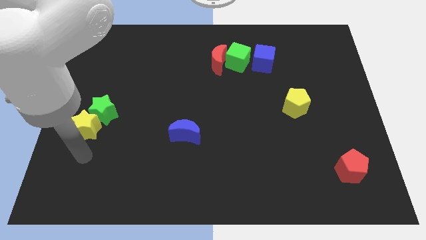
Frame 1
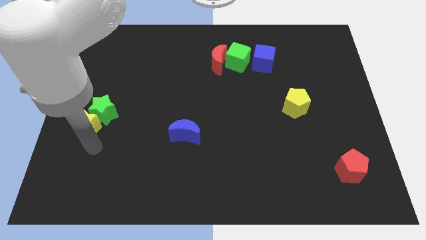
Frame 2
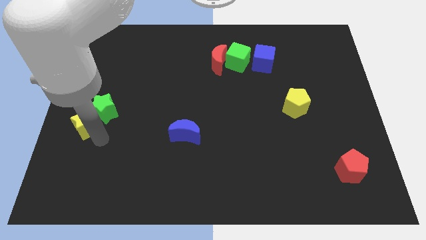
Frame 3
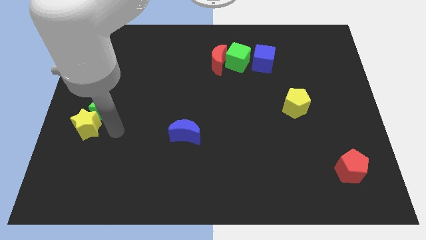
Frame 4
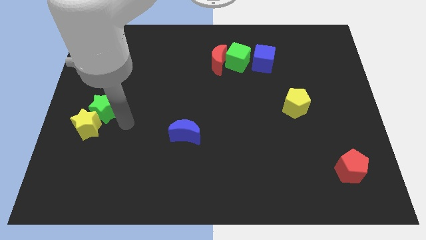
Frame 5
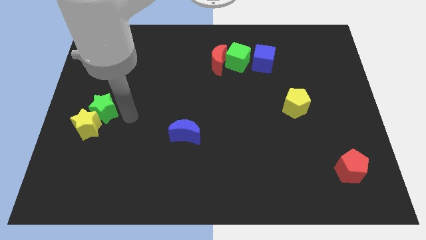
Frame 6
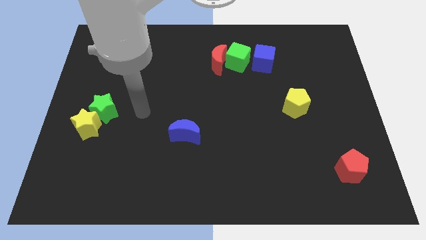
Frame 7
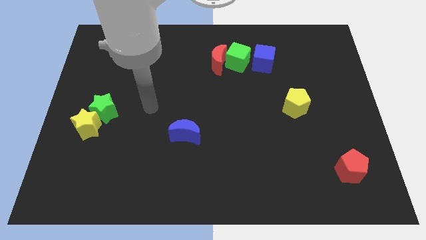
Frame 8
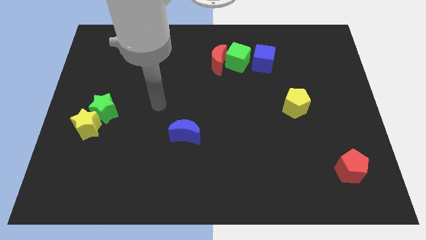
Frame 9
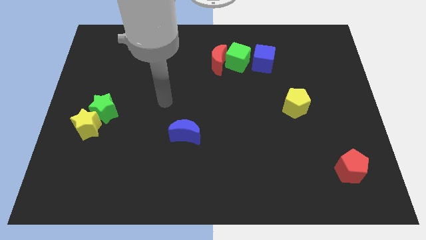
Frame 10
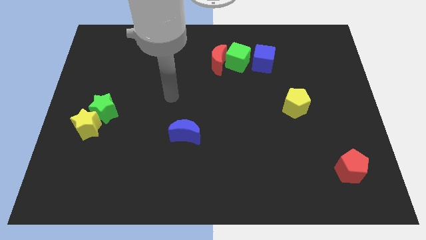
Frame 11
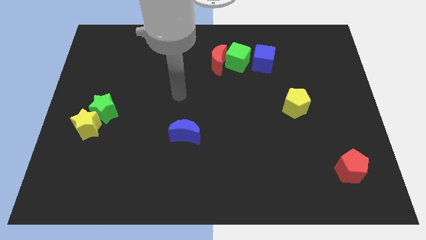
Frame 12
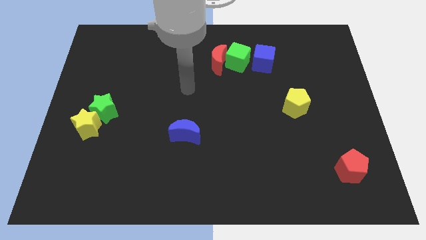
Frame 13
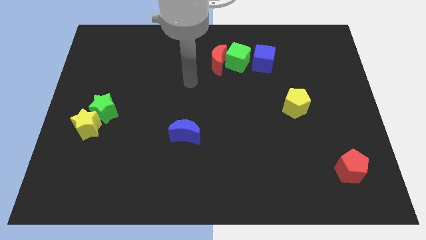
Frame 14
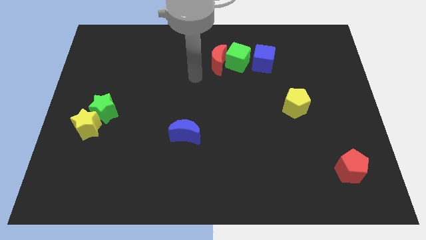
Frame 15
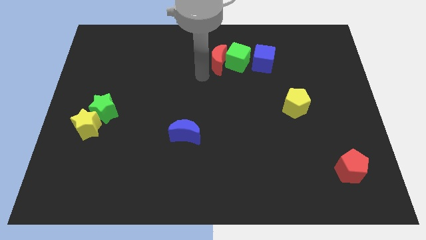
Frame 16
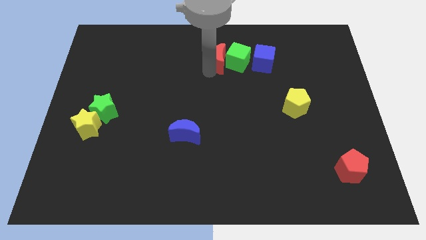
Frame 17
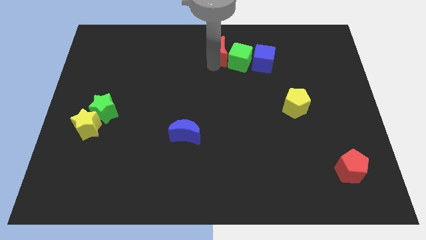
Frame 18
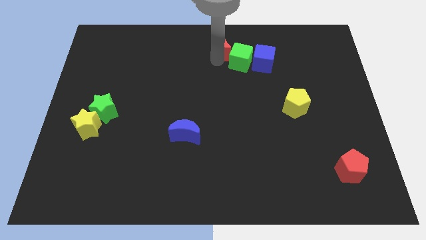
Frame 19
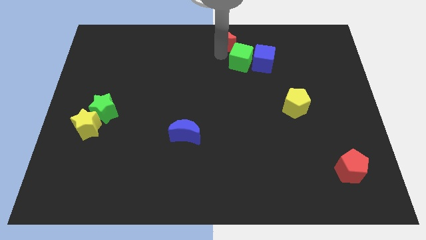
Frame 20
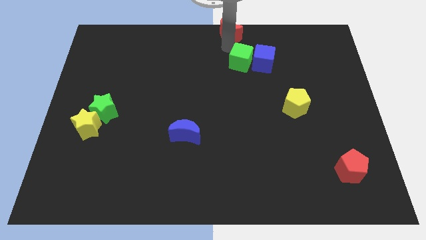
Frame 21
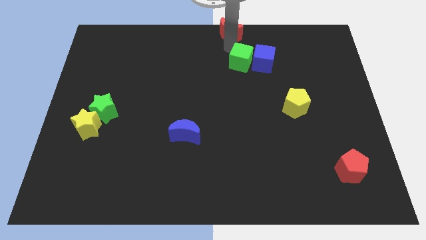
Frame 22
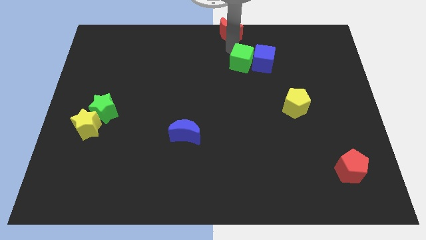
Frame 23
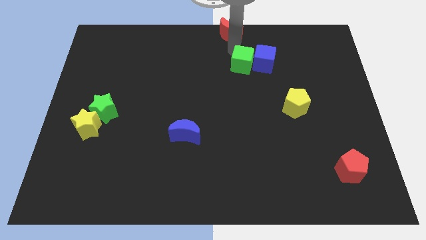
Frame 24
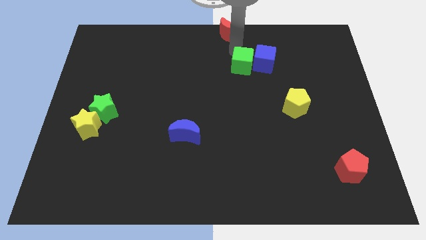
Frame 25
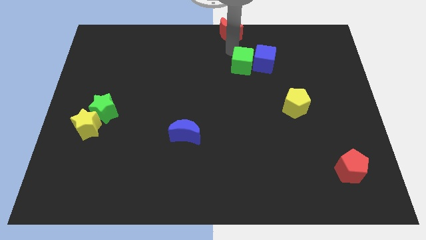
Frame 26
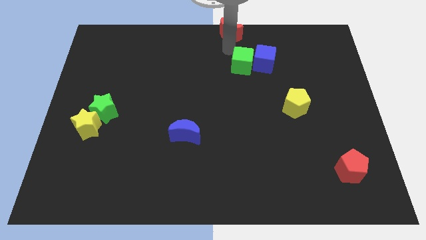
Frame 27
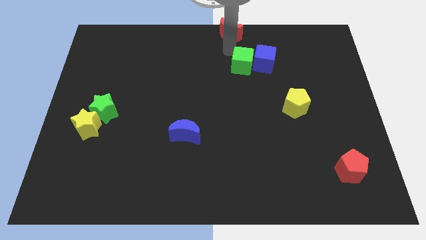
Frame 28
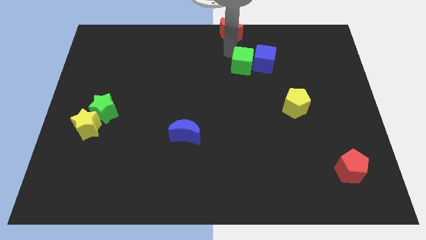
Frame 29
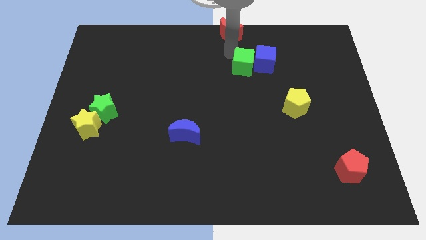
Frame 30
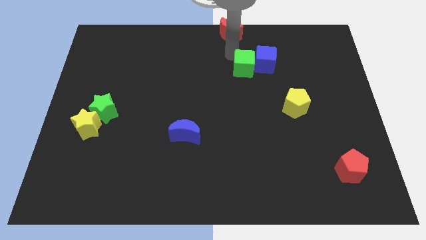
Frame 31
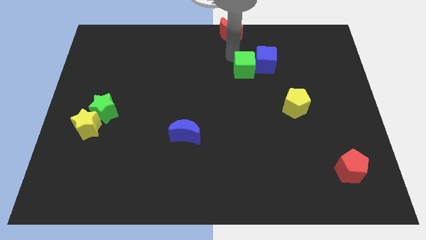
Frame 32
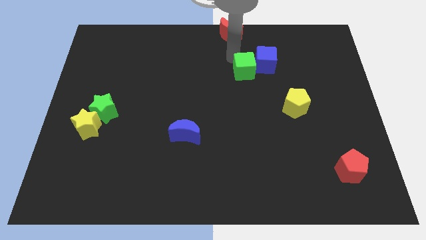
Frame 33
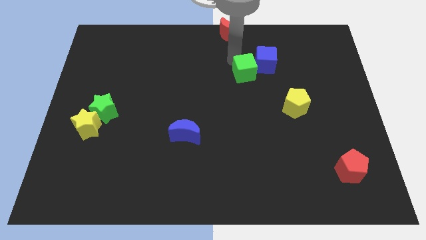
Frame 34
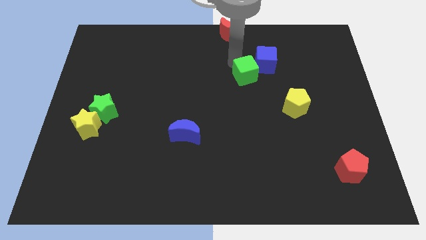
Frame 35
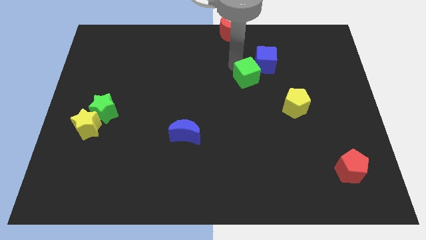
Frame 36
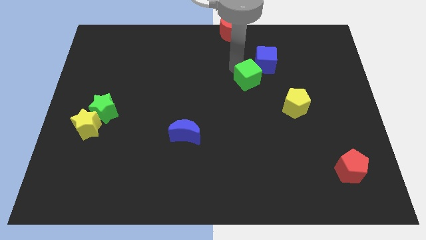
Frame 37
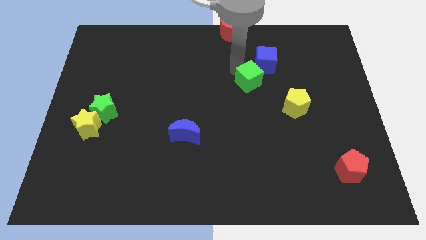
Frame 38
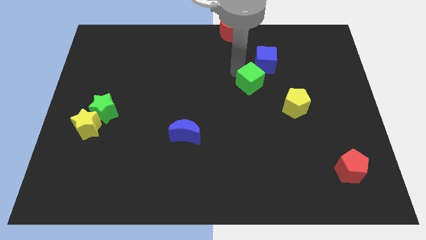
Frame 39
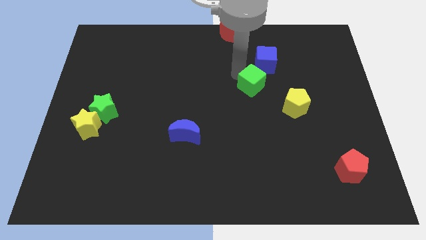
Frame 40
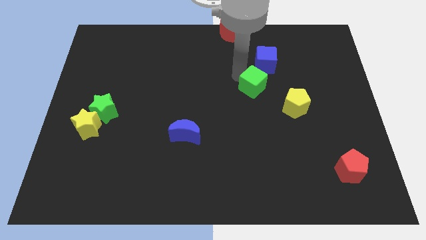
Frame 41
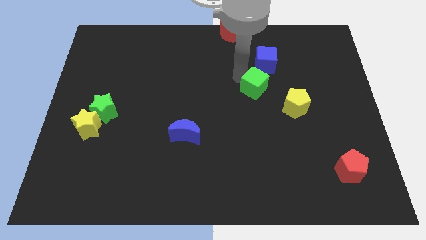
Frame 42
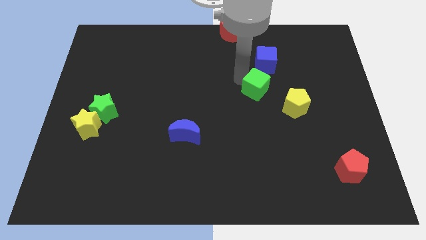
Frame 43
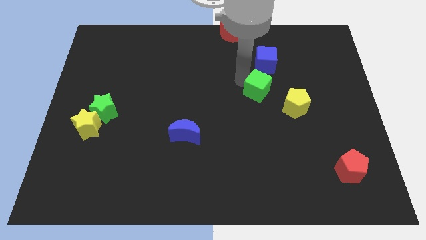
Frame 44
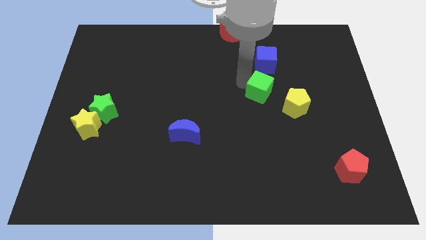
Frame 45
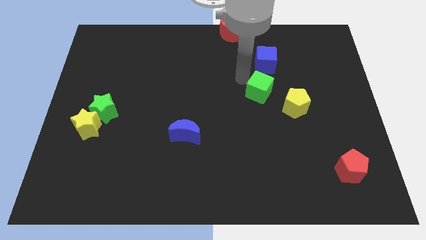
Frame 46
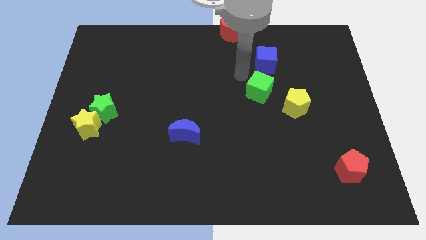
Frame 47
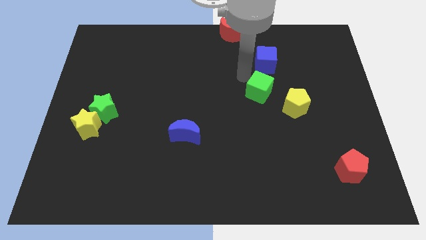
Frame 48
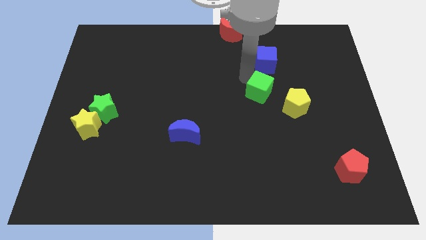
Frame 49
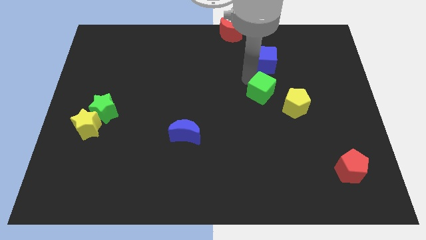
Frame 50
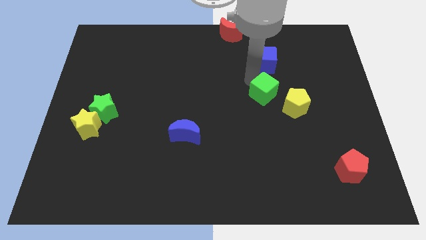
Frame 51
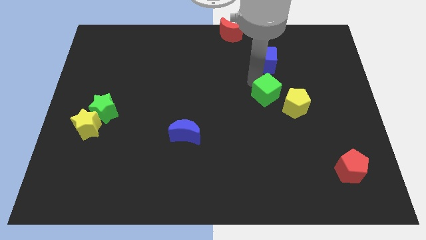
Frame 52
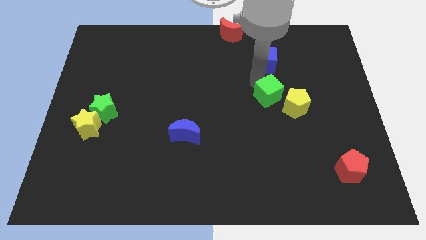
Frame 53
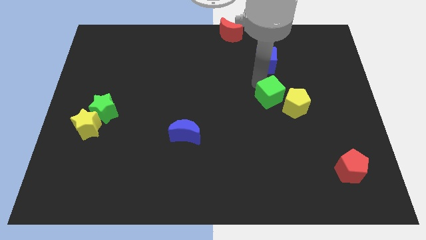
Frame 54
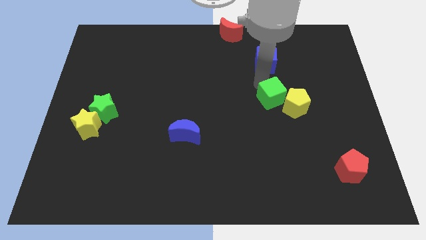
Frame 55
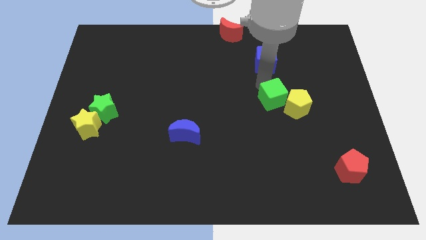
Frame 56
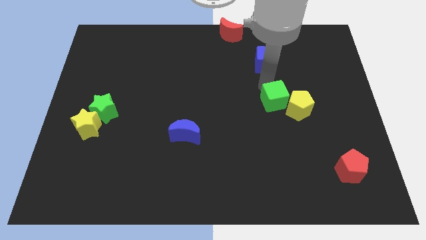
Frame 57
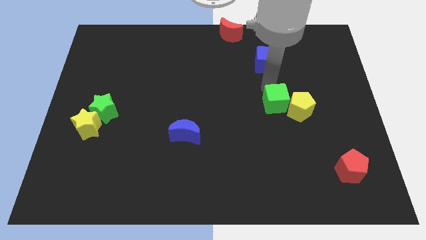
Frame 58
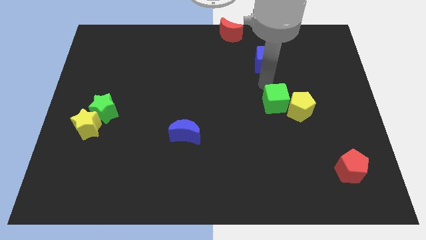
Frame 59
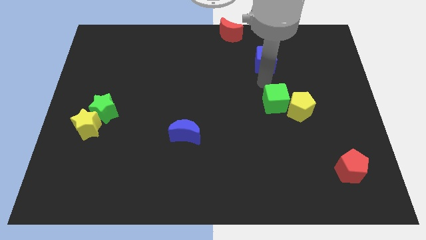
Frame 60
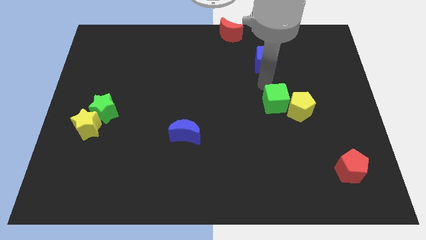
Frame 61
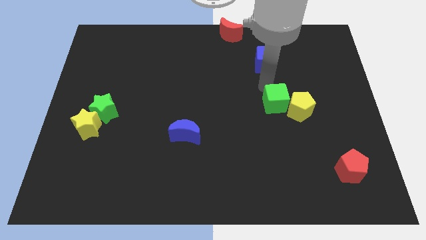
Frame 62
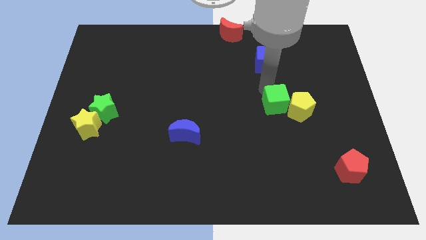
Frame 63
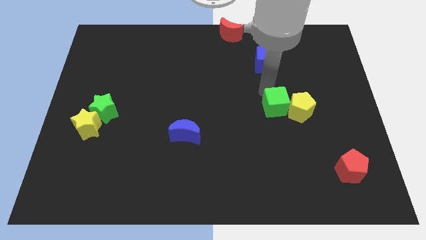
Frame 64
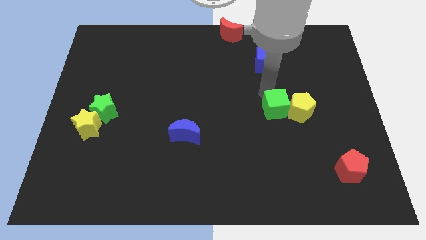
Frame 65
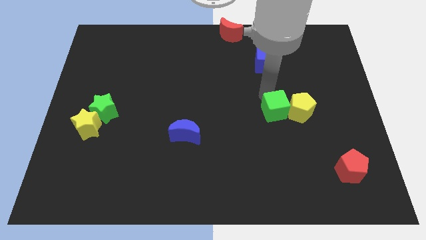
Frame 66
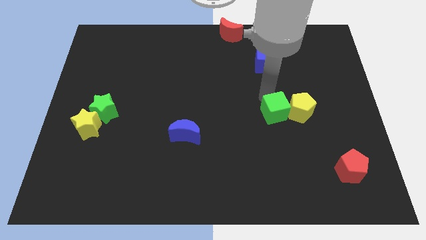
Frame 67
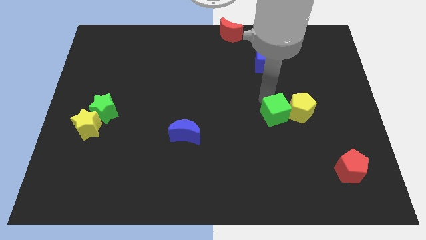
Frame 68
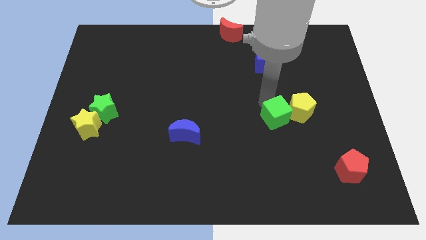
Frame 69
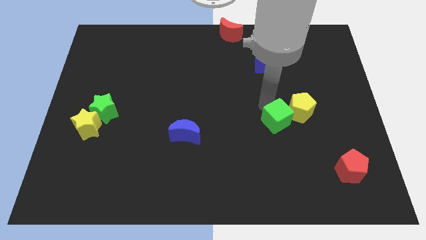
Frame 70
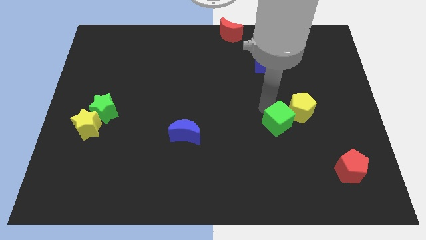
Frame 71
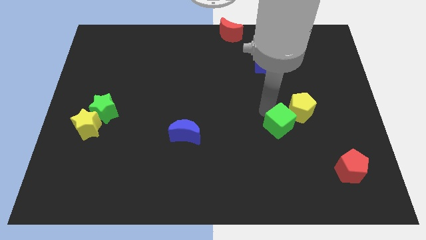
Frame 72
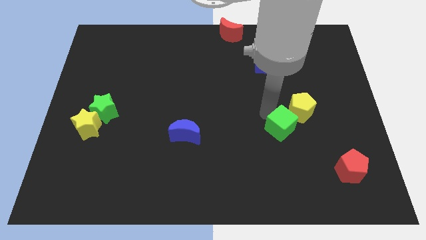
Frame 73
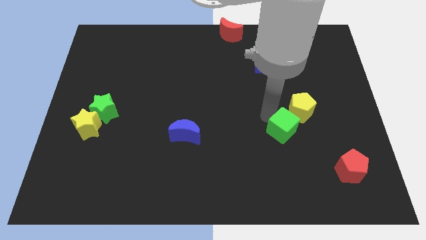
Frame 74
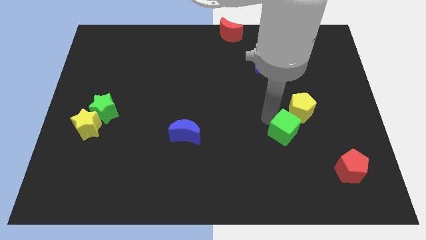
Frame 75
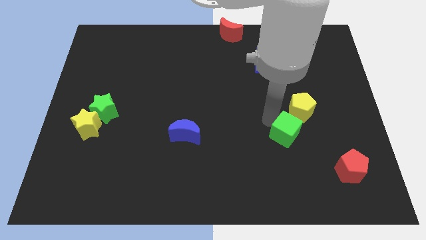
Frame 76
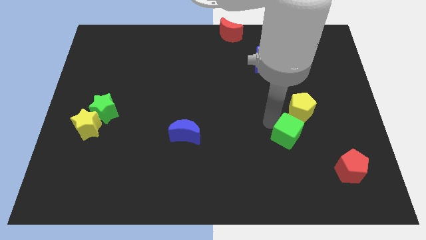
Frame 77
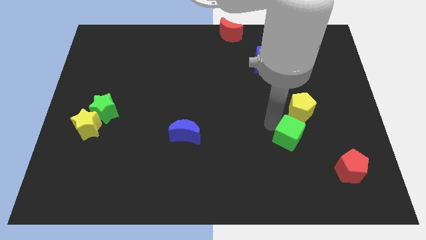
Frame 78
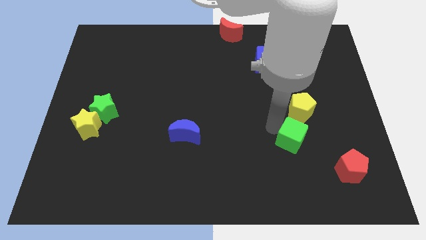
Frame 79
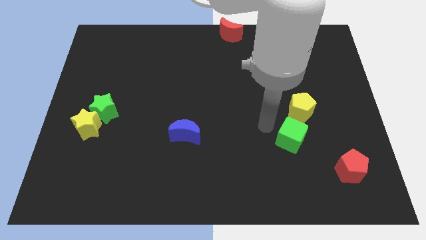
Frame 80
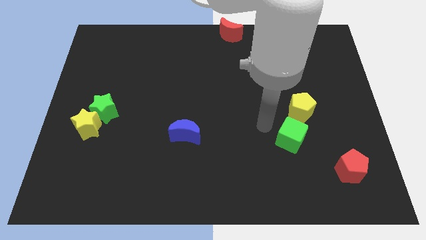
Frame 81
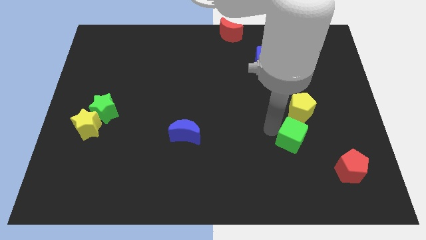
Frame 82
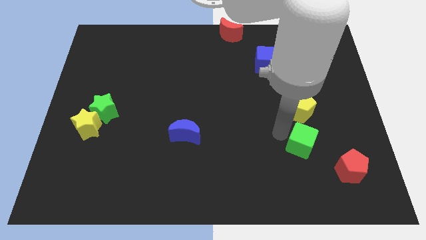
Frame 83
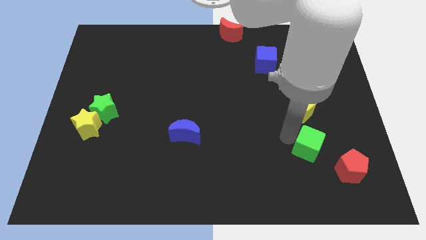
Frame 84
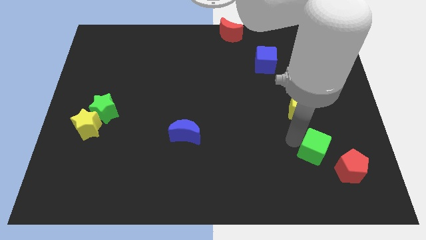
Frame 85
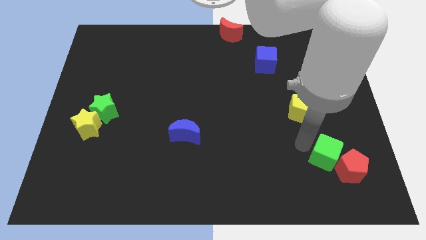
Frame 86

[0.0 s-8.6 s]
put the green cube towards the red pentagon
